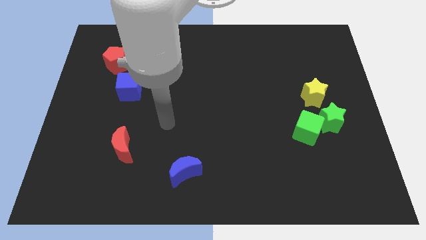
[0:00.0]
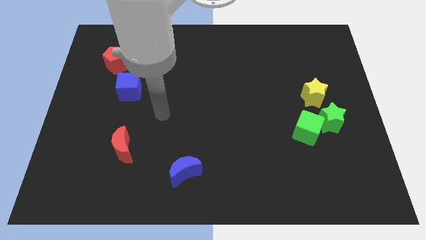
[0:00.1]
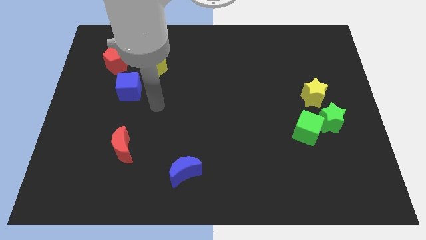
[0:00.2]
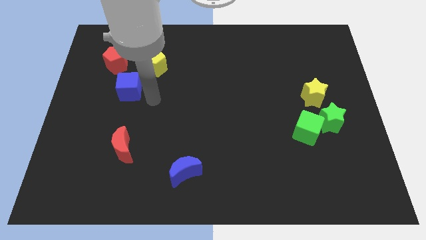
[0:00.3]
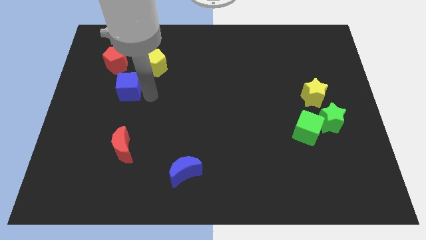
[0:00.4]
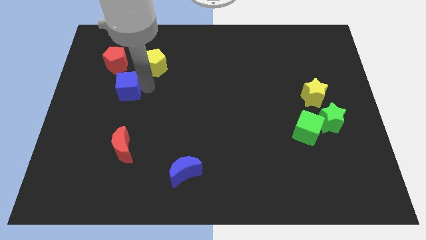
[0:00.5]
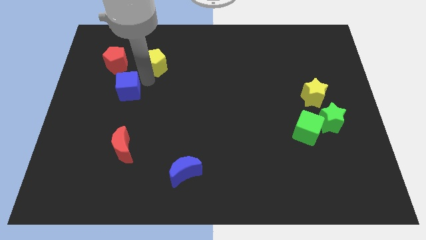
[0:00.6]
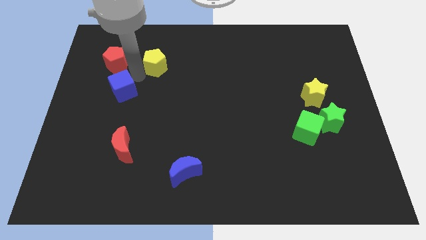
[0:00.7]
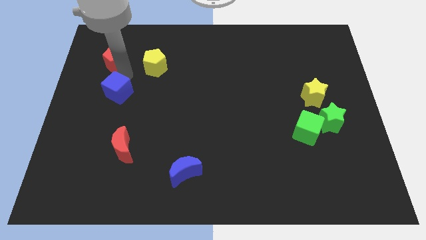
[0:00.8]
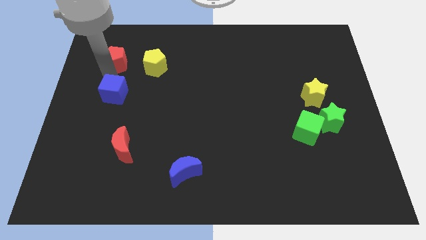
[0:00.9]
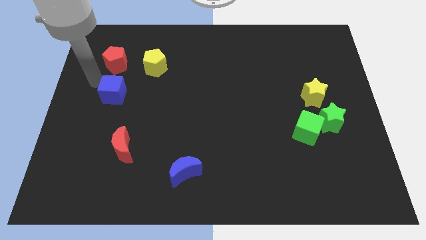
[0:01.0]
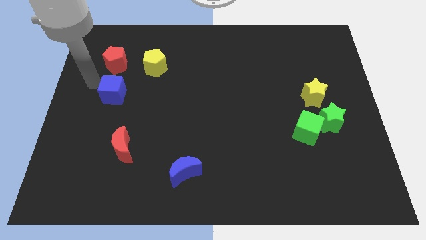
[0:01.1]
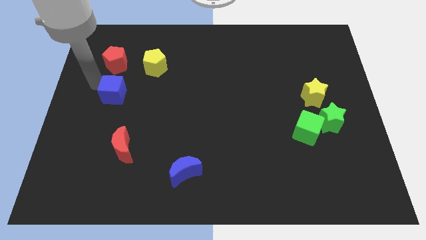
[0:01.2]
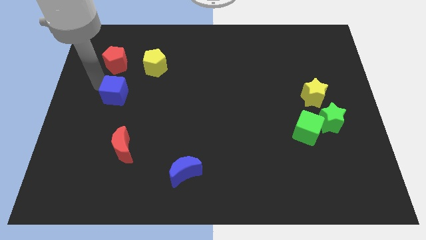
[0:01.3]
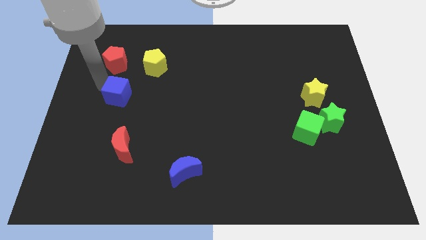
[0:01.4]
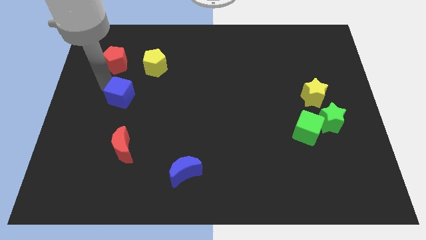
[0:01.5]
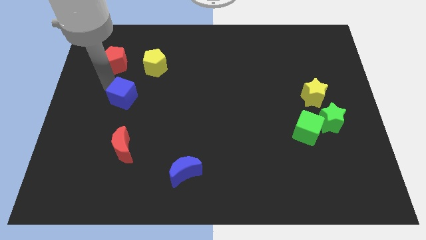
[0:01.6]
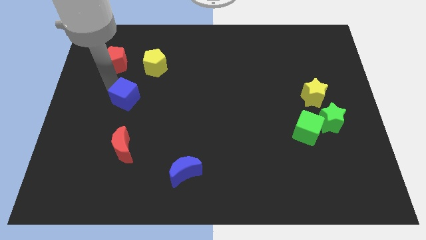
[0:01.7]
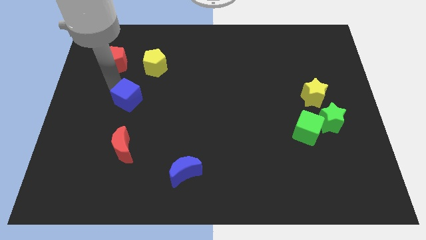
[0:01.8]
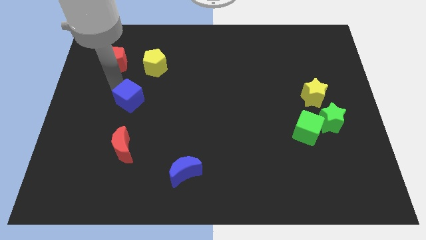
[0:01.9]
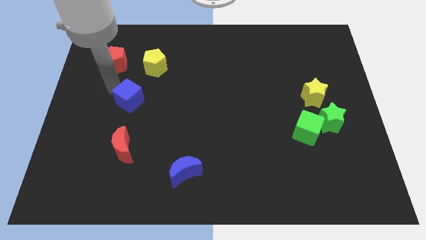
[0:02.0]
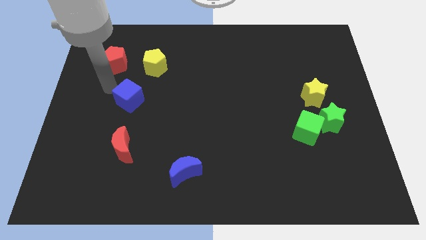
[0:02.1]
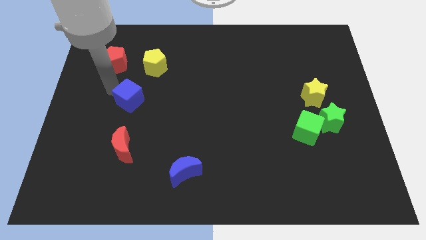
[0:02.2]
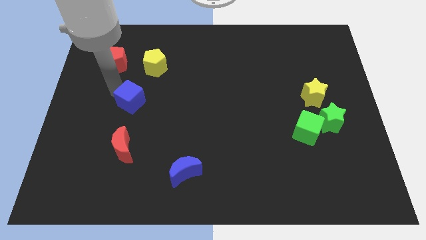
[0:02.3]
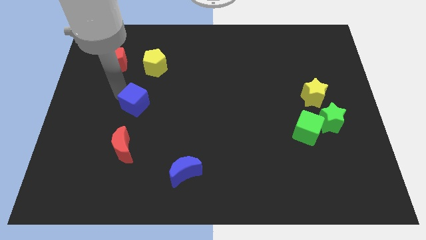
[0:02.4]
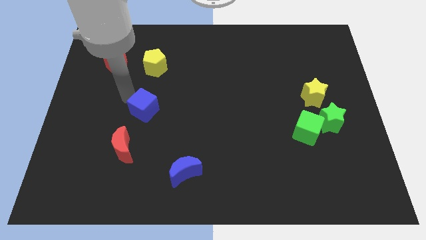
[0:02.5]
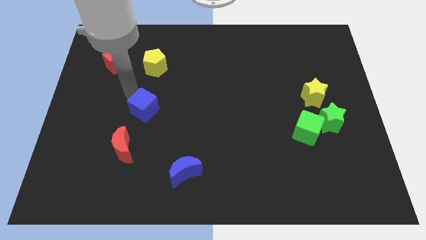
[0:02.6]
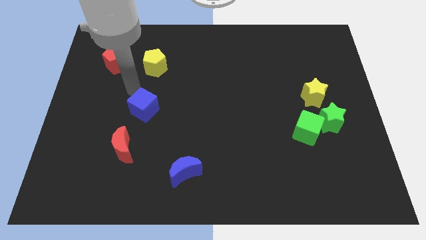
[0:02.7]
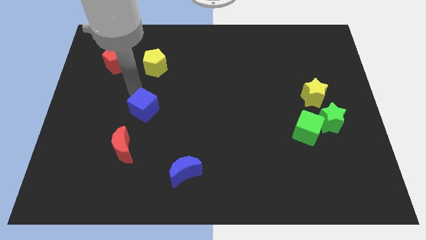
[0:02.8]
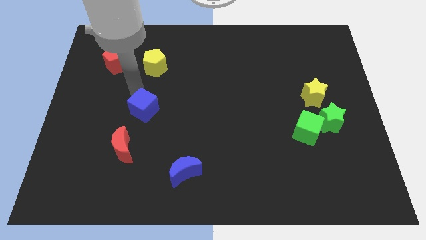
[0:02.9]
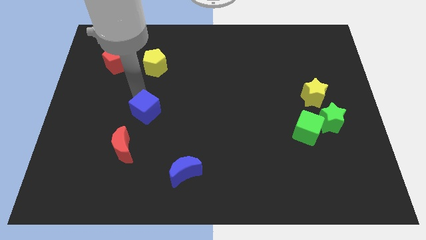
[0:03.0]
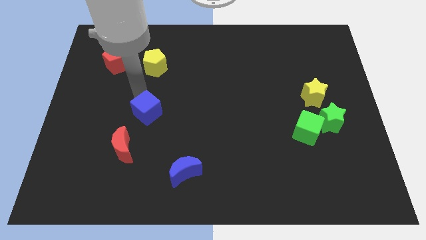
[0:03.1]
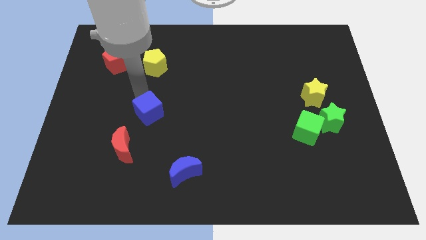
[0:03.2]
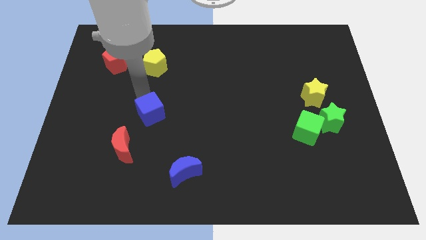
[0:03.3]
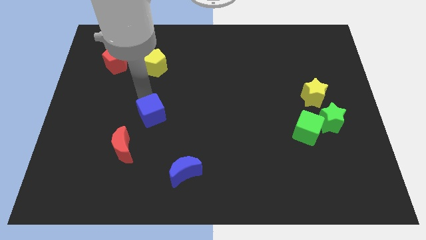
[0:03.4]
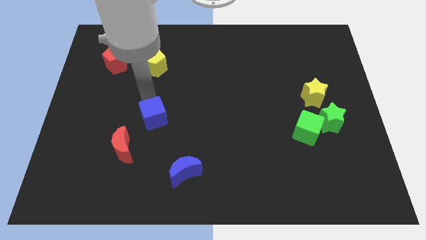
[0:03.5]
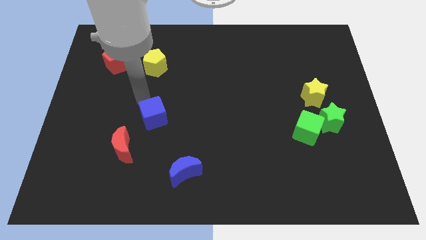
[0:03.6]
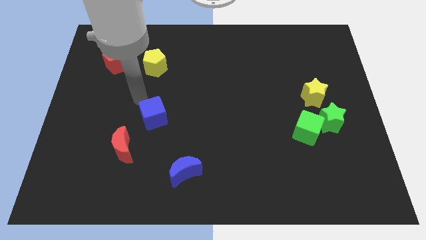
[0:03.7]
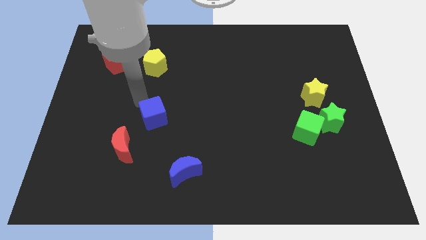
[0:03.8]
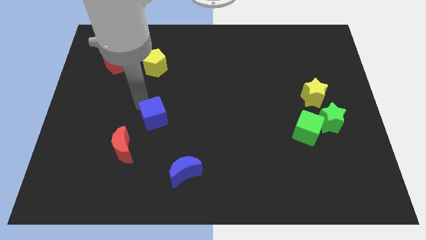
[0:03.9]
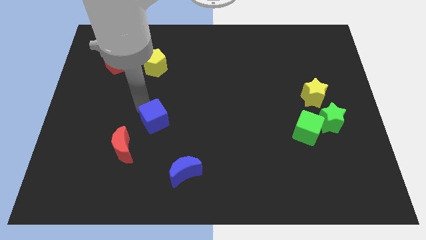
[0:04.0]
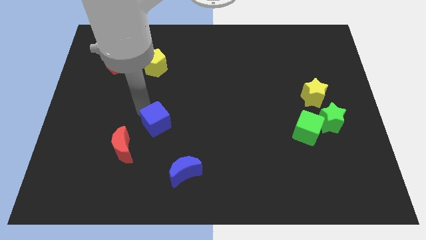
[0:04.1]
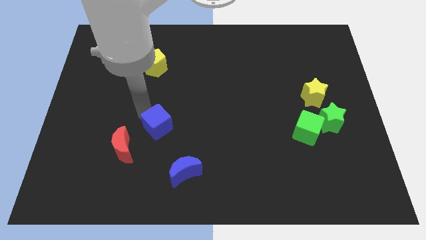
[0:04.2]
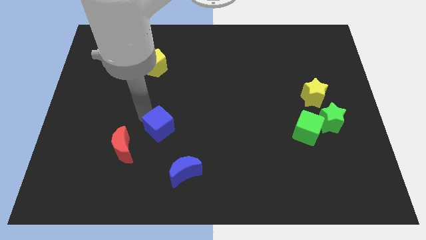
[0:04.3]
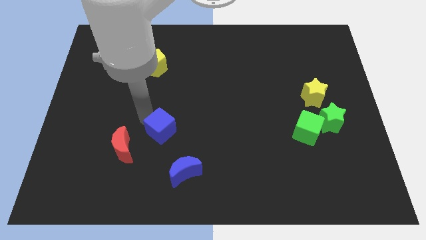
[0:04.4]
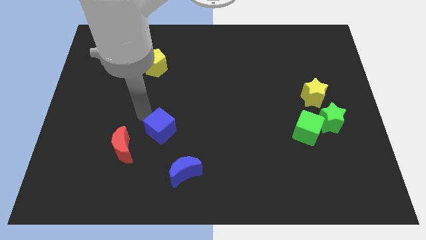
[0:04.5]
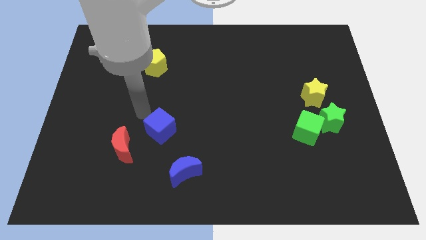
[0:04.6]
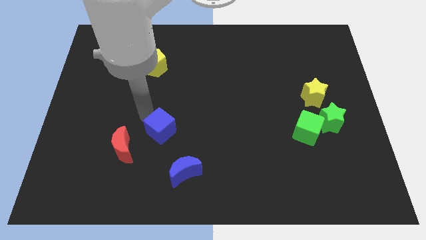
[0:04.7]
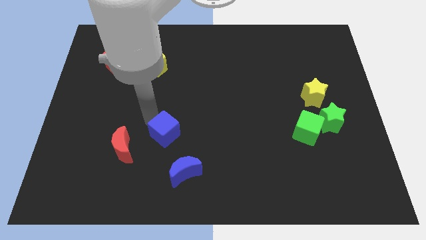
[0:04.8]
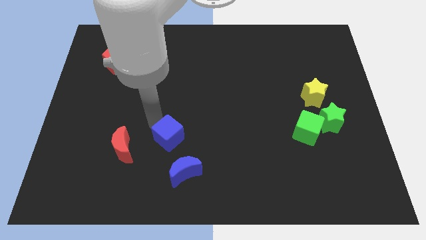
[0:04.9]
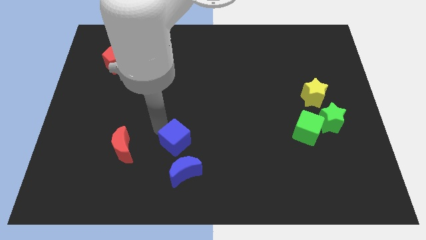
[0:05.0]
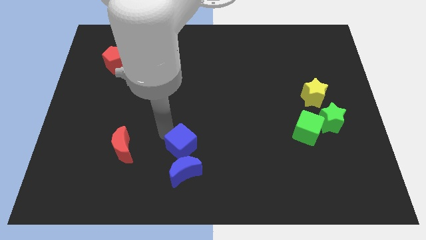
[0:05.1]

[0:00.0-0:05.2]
slide the blue cube diagonally down and to the right

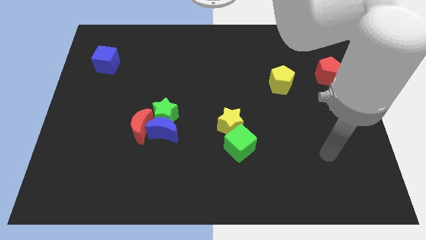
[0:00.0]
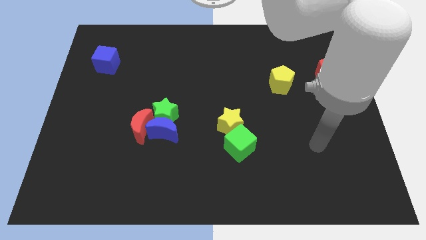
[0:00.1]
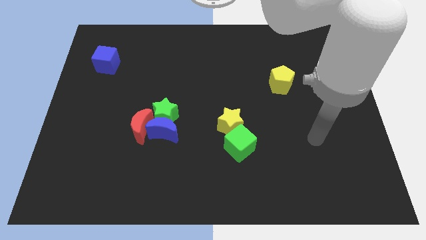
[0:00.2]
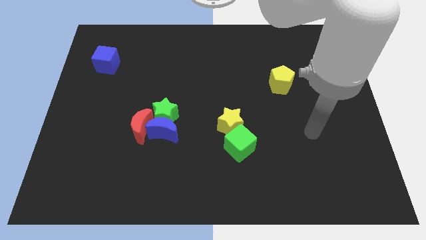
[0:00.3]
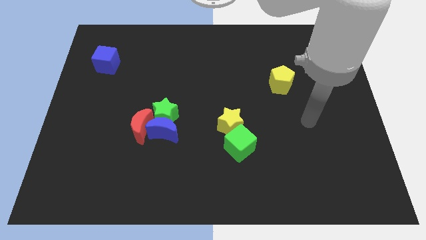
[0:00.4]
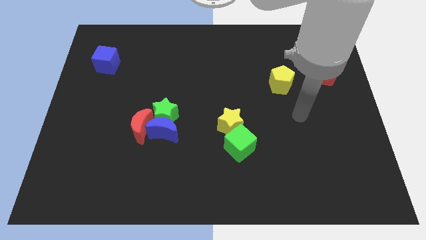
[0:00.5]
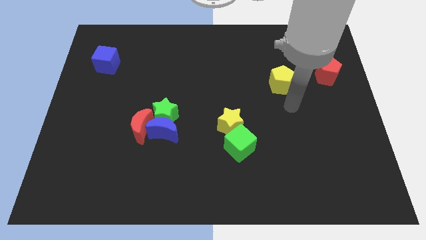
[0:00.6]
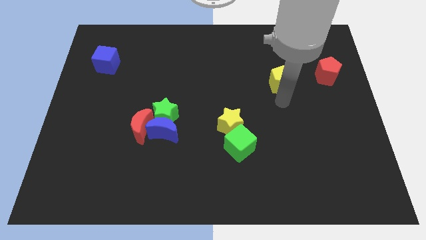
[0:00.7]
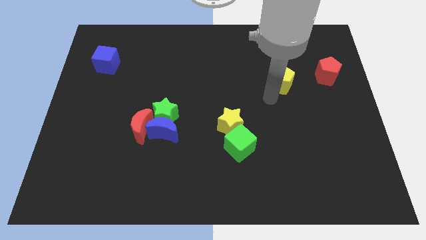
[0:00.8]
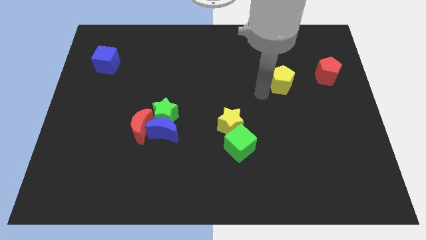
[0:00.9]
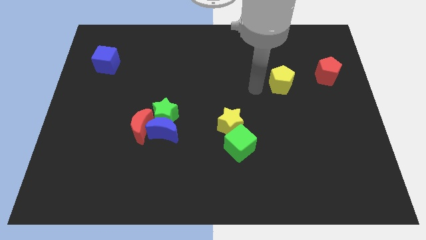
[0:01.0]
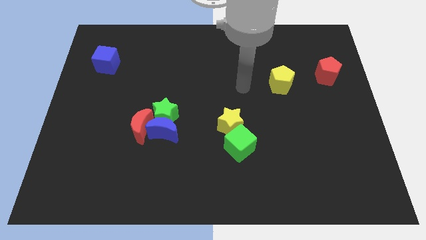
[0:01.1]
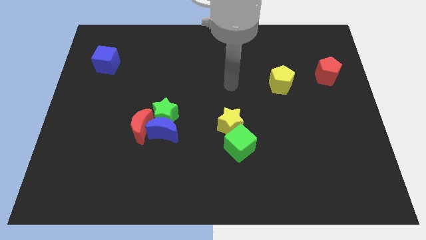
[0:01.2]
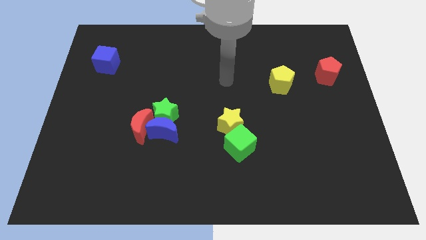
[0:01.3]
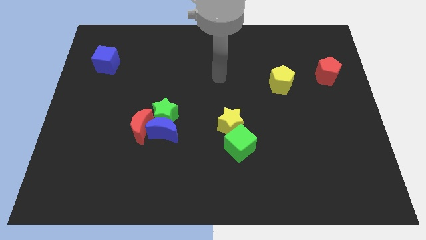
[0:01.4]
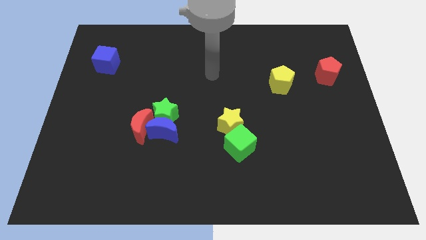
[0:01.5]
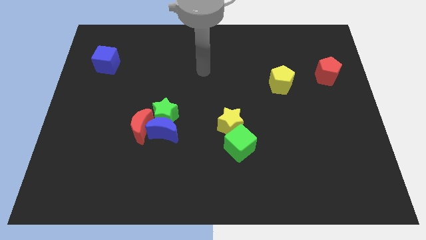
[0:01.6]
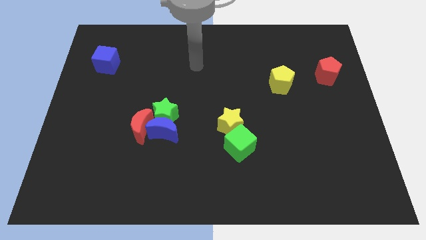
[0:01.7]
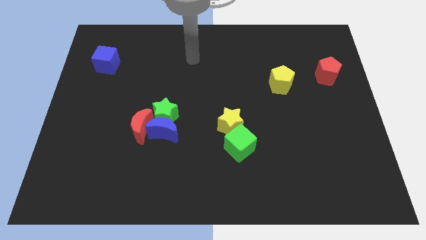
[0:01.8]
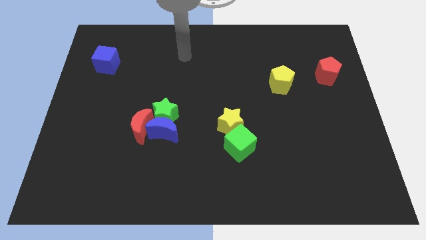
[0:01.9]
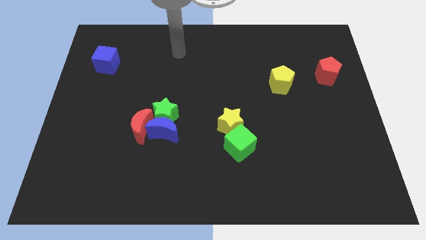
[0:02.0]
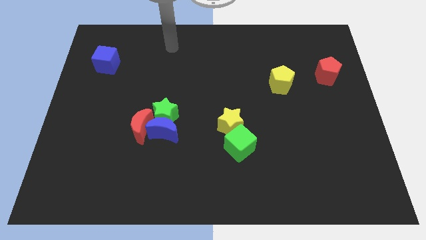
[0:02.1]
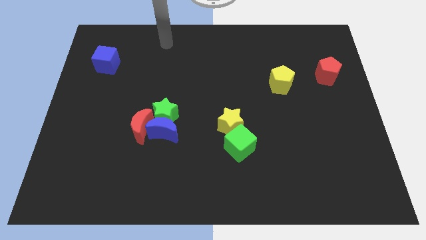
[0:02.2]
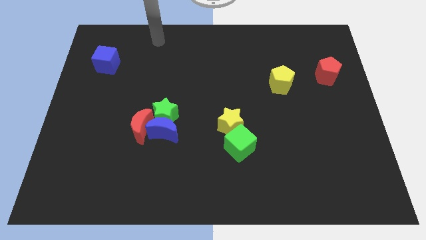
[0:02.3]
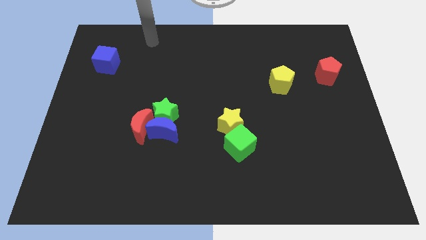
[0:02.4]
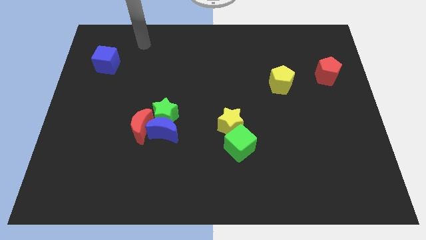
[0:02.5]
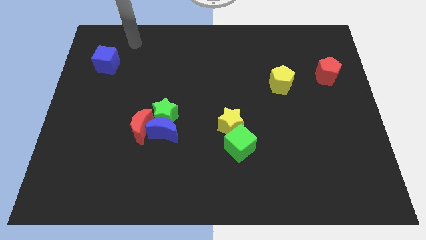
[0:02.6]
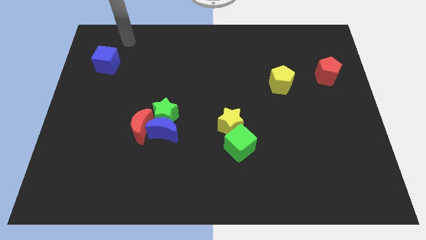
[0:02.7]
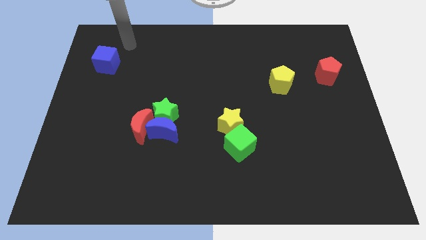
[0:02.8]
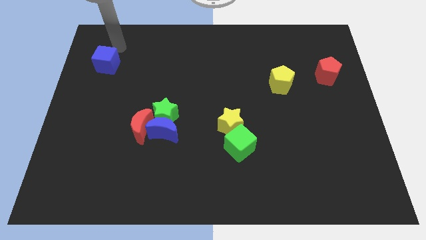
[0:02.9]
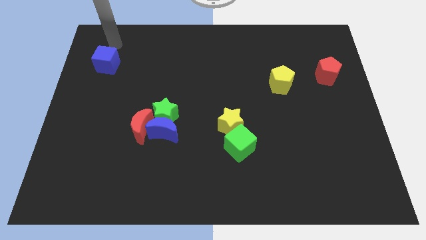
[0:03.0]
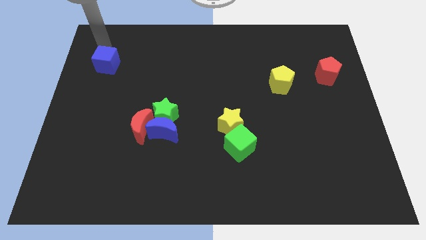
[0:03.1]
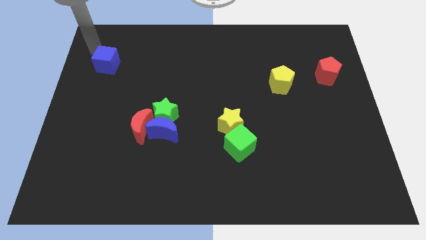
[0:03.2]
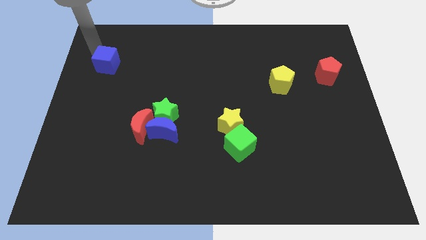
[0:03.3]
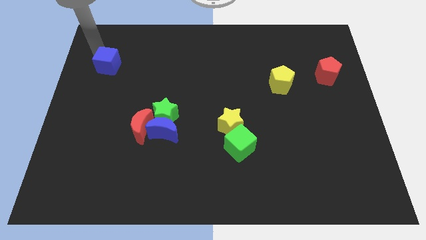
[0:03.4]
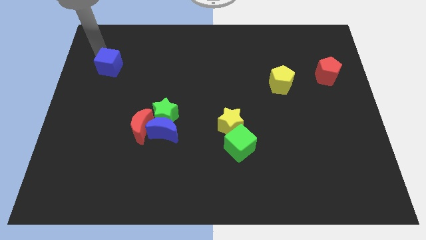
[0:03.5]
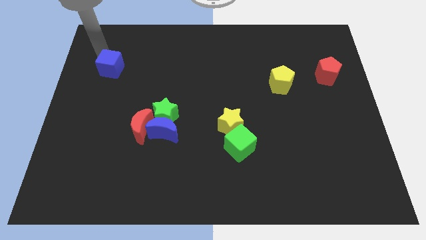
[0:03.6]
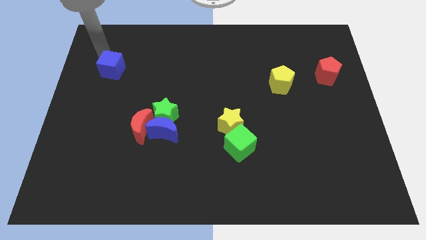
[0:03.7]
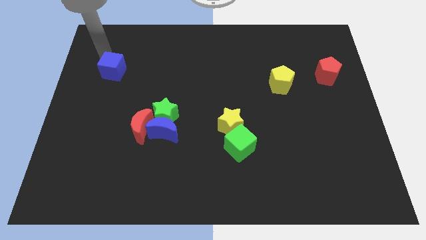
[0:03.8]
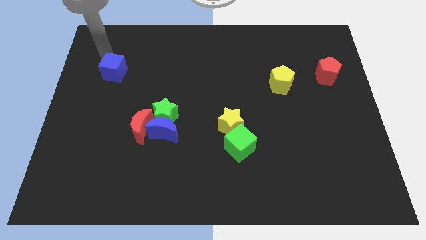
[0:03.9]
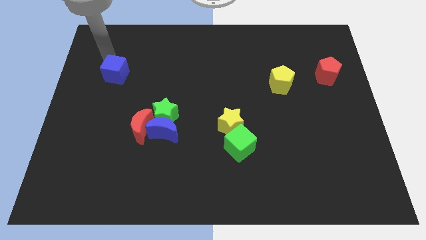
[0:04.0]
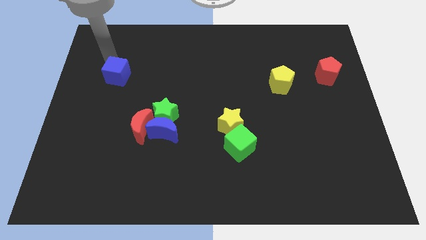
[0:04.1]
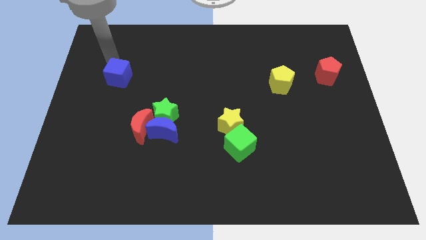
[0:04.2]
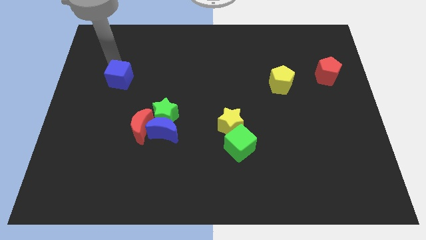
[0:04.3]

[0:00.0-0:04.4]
slide the blue cube slightly downwards and right
